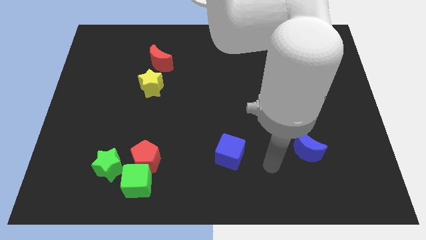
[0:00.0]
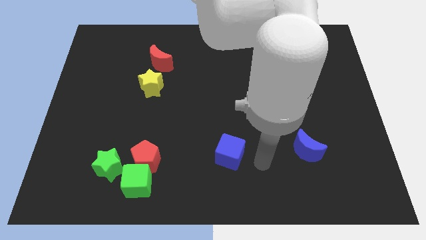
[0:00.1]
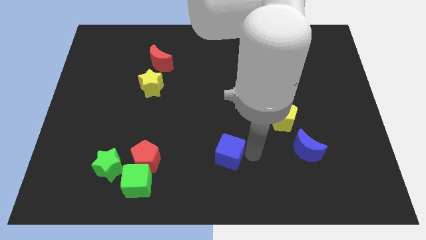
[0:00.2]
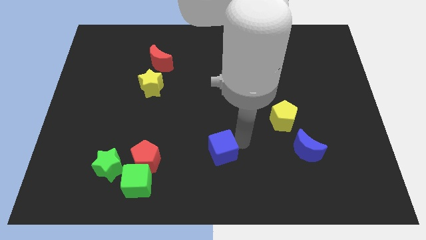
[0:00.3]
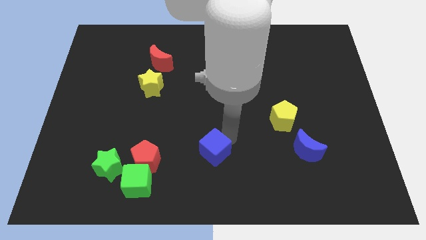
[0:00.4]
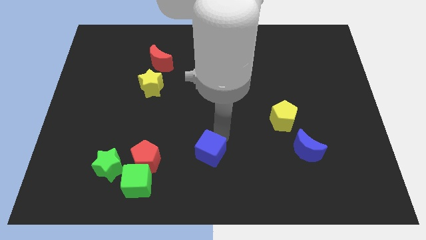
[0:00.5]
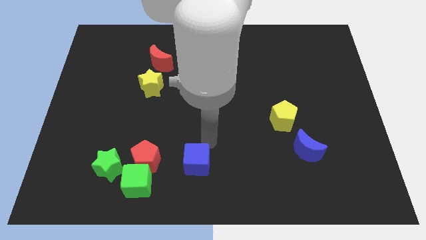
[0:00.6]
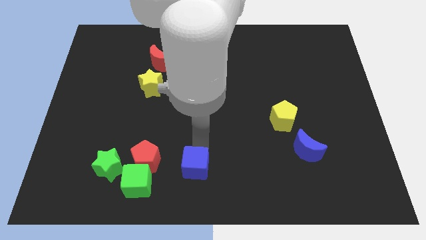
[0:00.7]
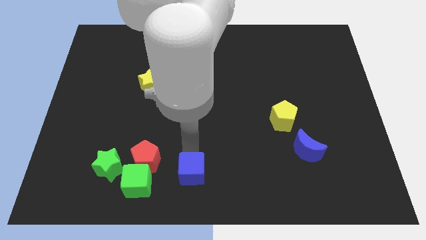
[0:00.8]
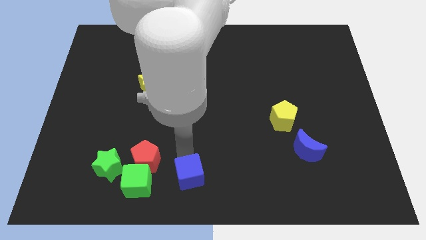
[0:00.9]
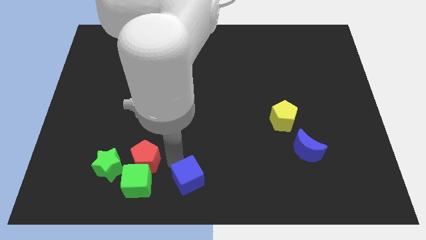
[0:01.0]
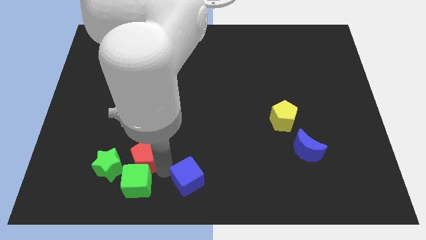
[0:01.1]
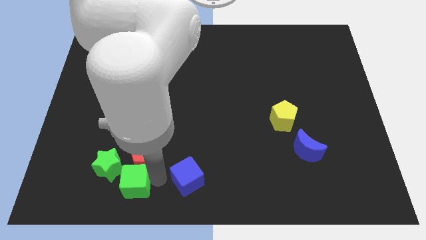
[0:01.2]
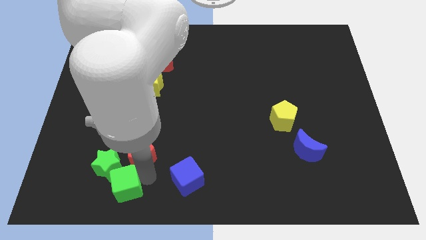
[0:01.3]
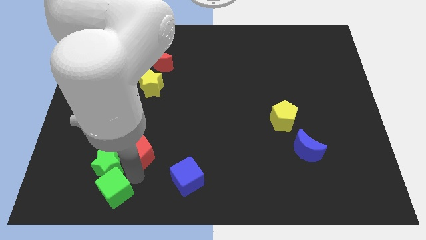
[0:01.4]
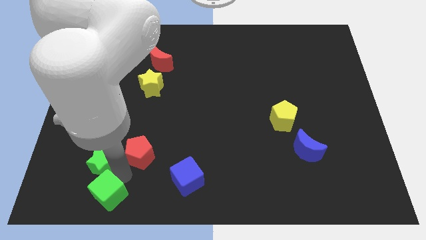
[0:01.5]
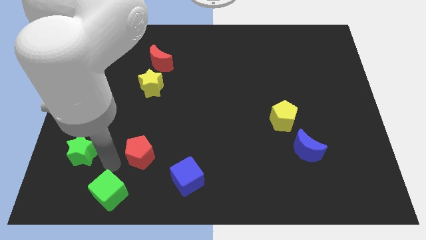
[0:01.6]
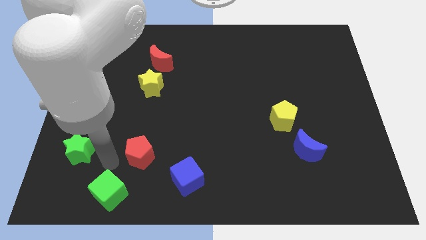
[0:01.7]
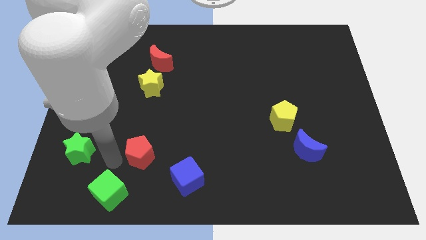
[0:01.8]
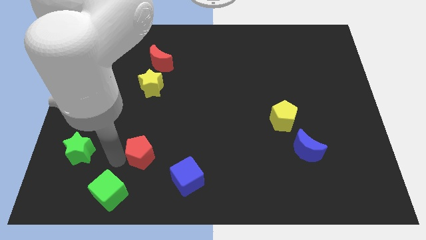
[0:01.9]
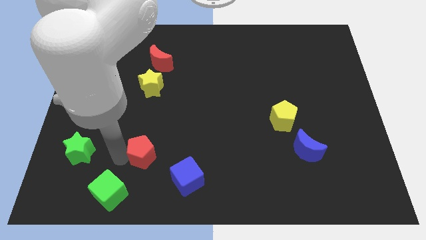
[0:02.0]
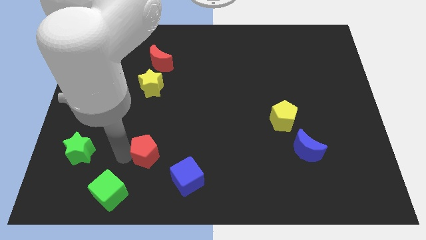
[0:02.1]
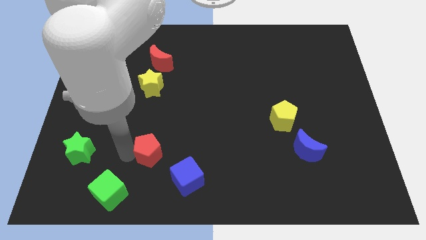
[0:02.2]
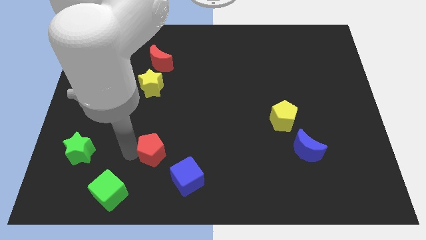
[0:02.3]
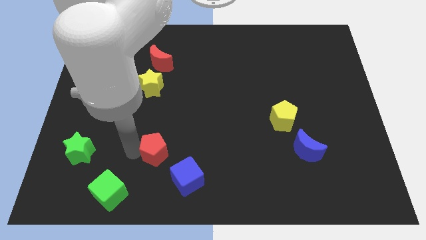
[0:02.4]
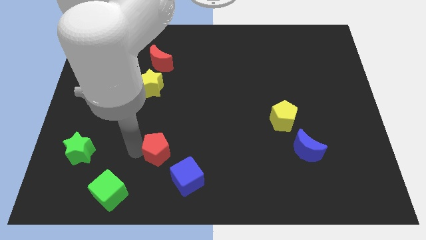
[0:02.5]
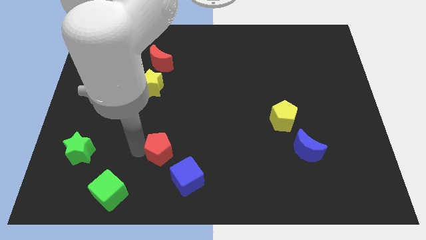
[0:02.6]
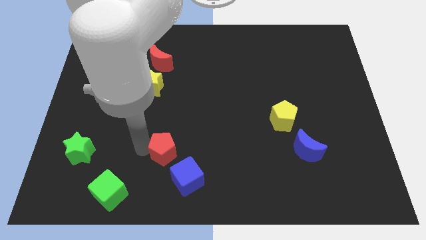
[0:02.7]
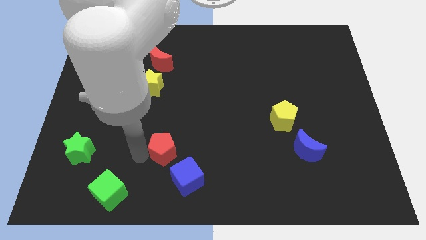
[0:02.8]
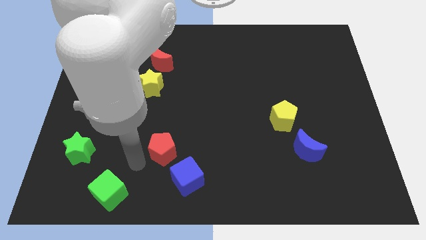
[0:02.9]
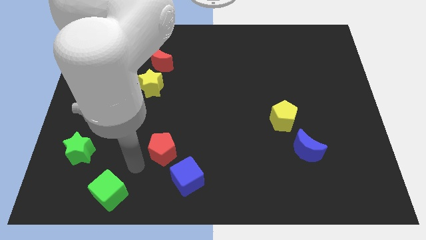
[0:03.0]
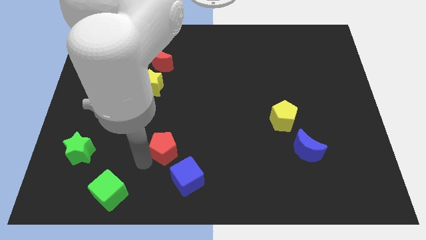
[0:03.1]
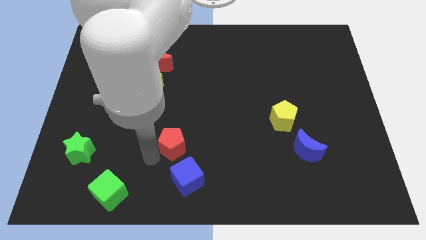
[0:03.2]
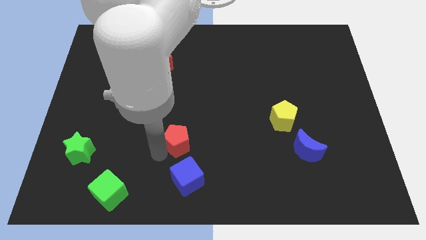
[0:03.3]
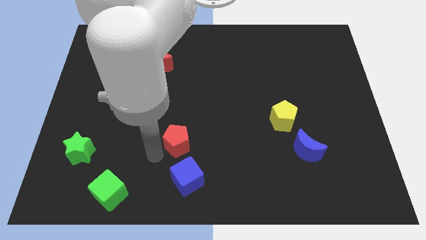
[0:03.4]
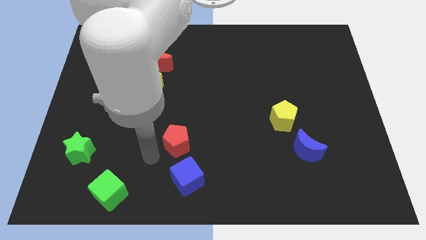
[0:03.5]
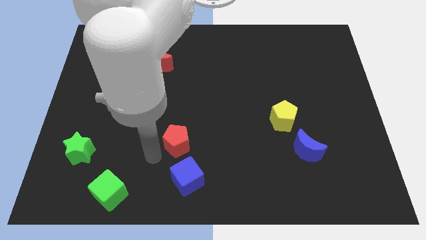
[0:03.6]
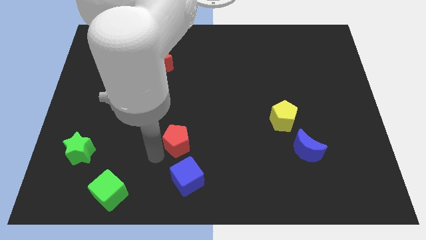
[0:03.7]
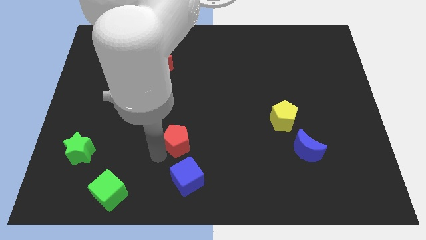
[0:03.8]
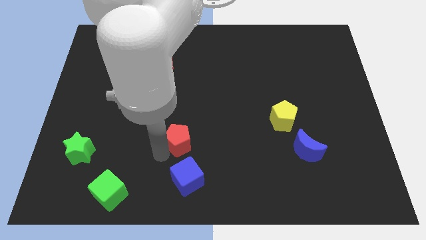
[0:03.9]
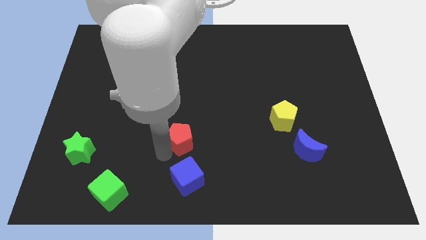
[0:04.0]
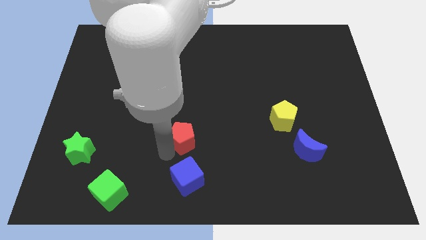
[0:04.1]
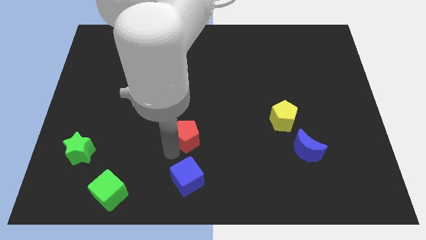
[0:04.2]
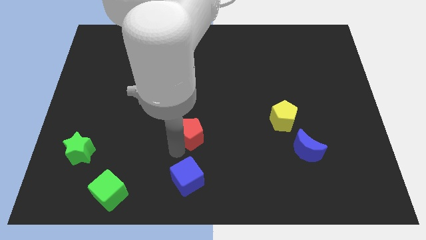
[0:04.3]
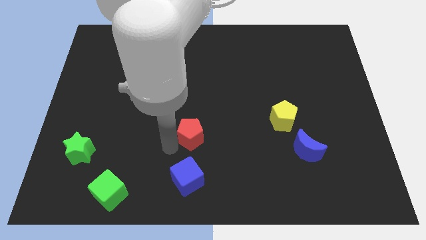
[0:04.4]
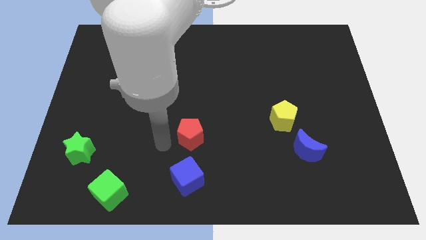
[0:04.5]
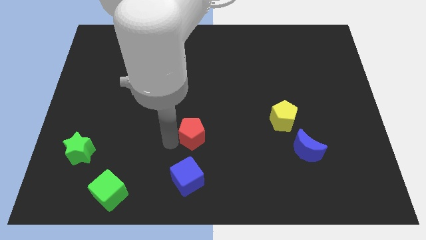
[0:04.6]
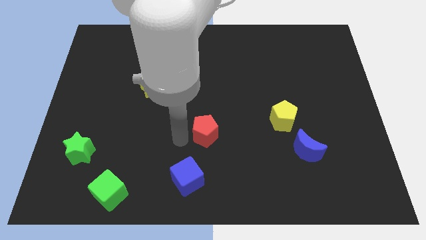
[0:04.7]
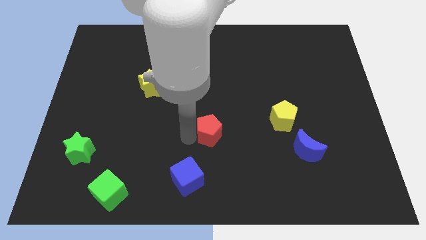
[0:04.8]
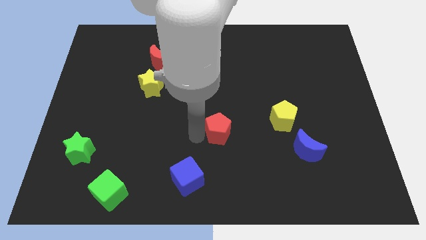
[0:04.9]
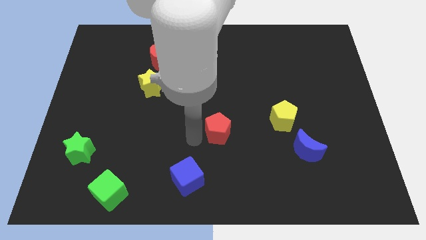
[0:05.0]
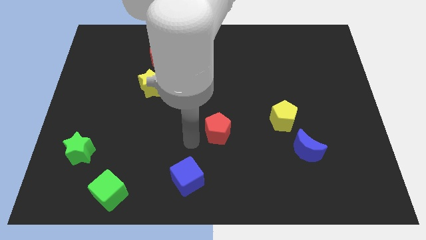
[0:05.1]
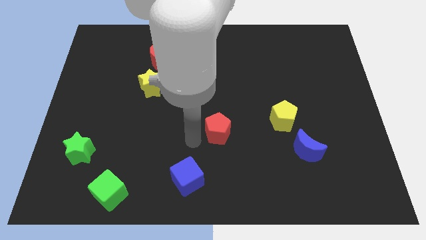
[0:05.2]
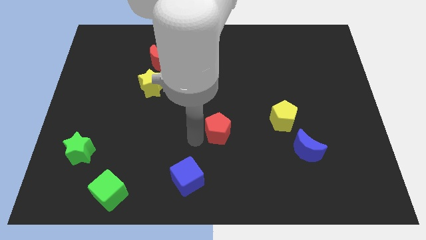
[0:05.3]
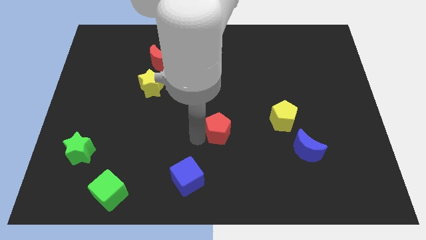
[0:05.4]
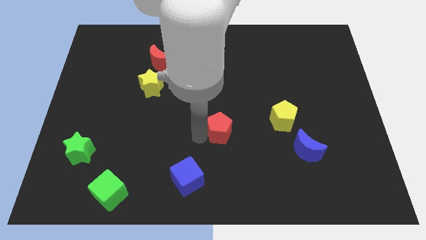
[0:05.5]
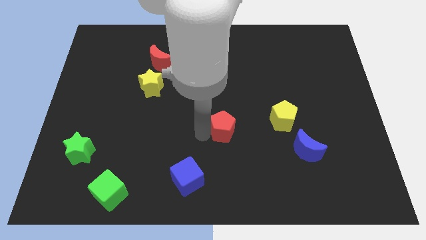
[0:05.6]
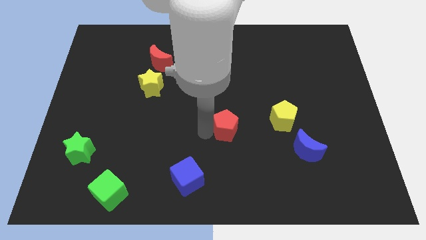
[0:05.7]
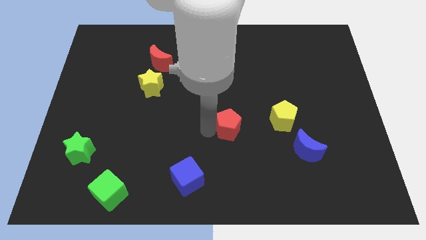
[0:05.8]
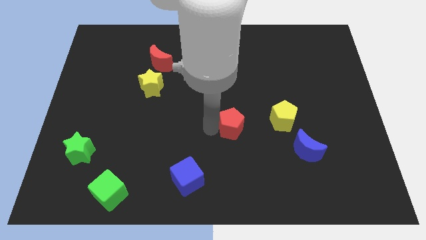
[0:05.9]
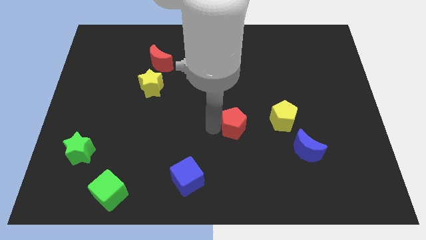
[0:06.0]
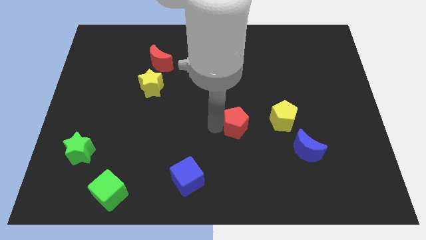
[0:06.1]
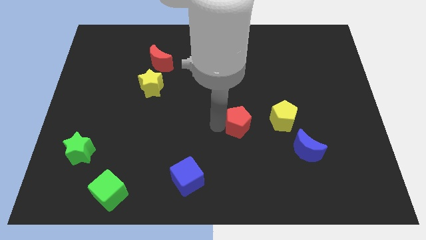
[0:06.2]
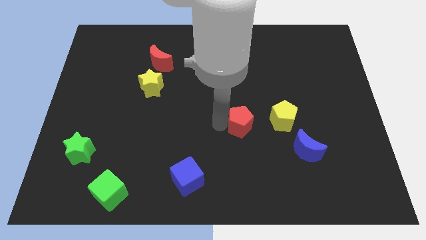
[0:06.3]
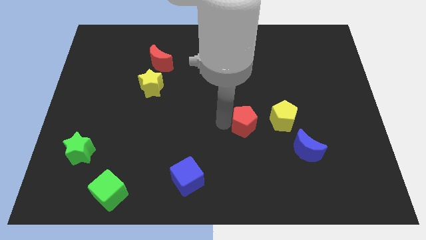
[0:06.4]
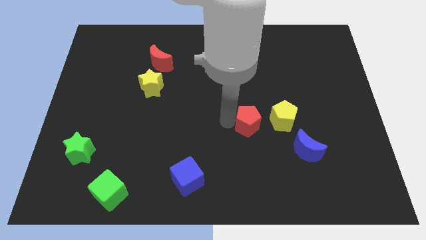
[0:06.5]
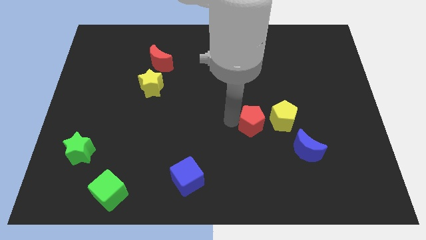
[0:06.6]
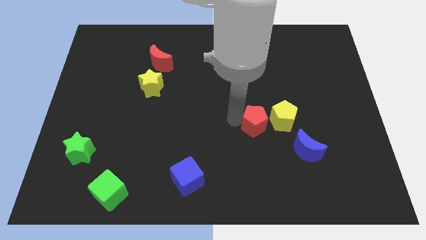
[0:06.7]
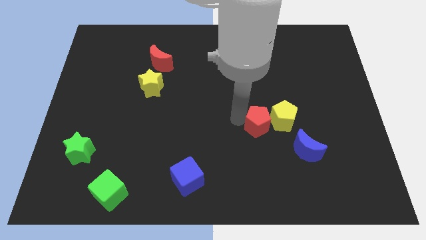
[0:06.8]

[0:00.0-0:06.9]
move the red pentagon to the yellow pentagon
